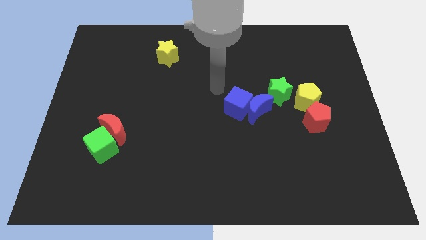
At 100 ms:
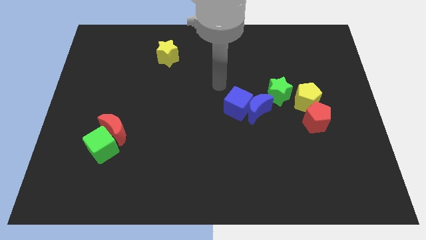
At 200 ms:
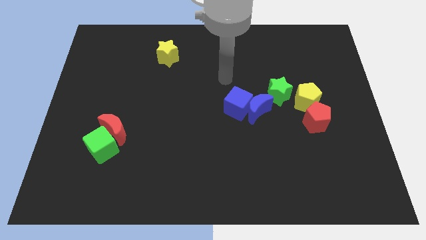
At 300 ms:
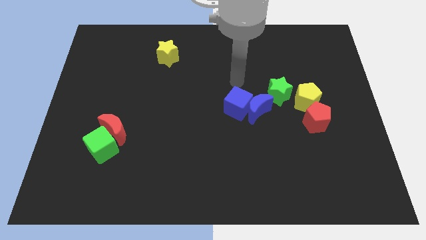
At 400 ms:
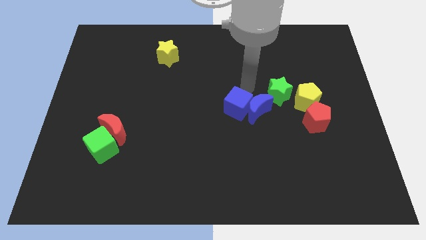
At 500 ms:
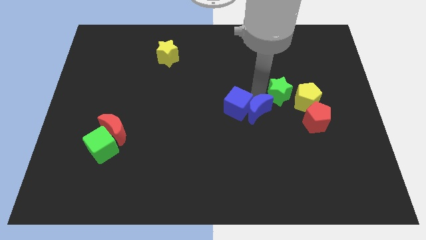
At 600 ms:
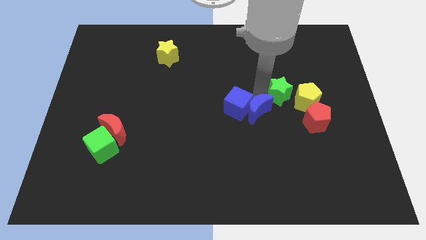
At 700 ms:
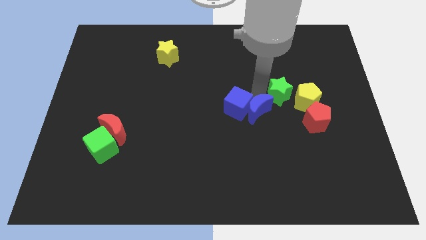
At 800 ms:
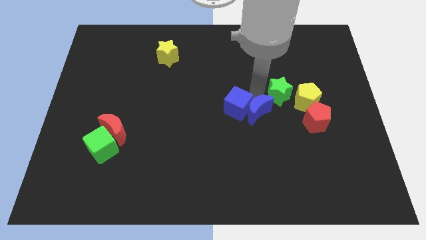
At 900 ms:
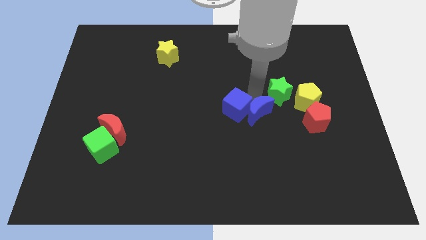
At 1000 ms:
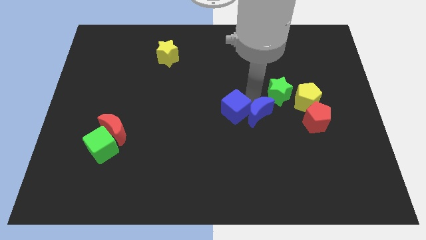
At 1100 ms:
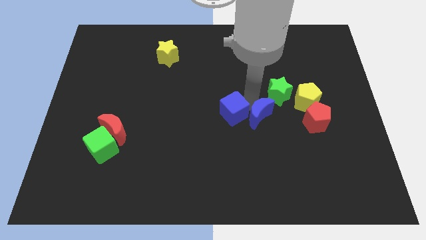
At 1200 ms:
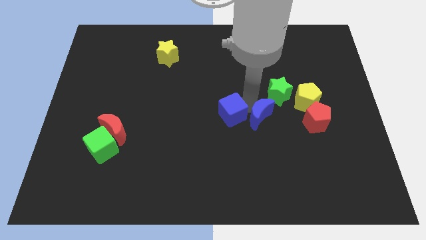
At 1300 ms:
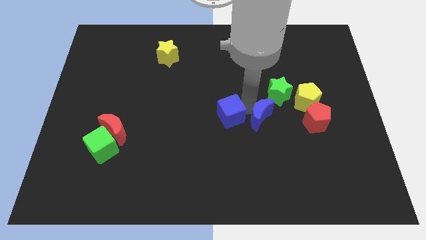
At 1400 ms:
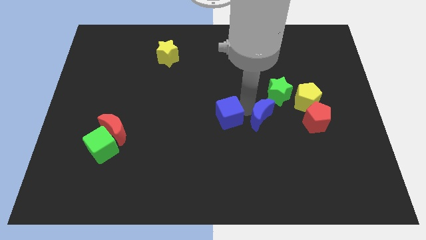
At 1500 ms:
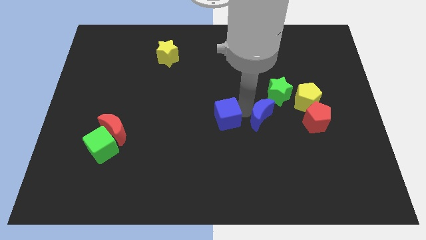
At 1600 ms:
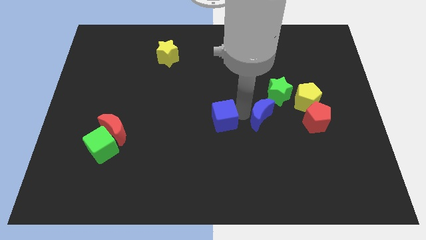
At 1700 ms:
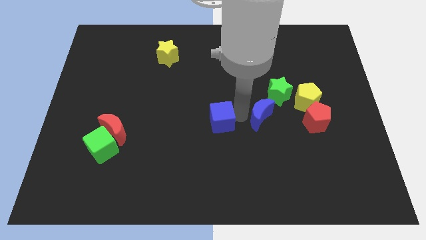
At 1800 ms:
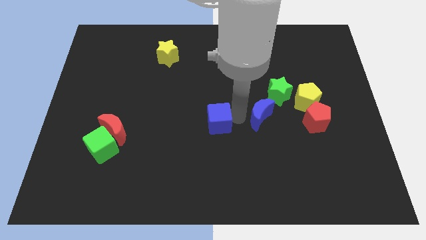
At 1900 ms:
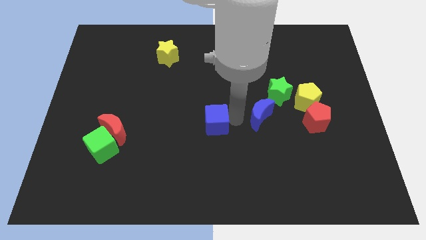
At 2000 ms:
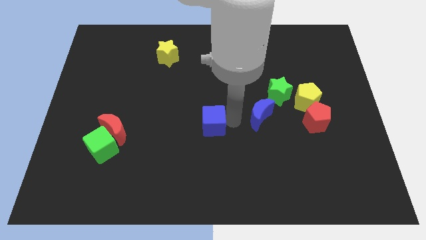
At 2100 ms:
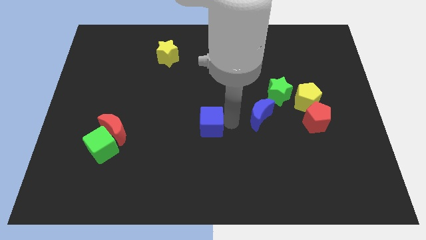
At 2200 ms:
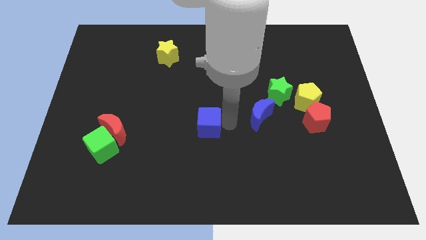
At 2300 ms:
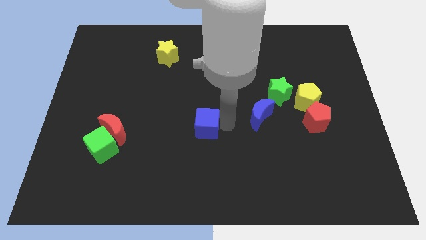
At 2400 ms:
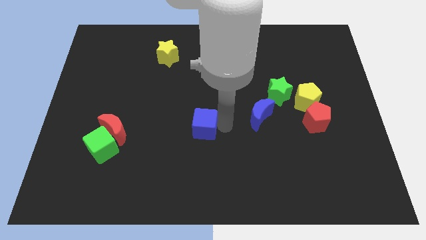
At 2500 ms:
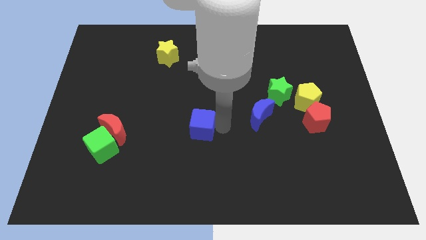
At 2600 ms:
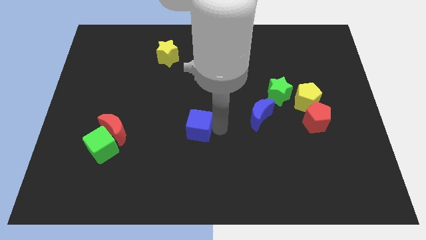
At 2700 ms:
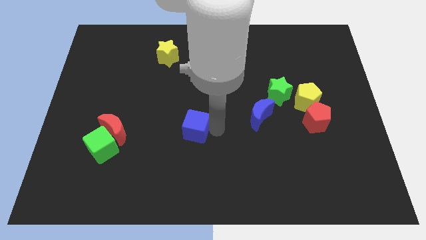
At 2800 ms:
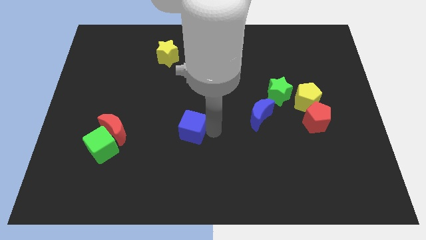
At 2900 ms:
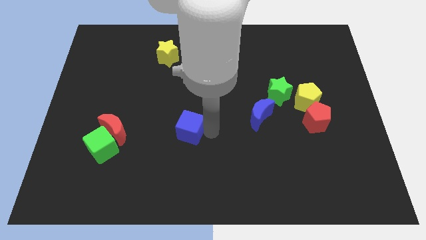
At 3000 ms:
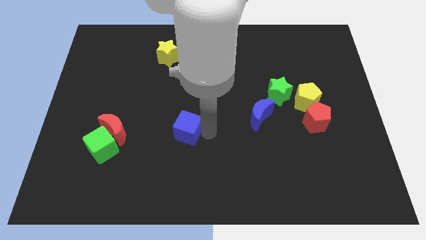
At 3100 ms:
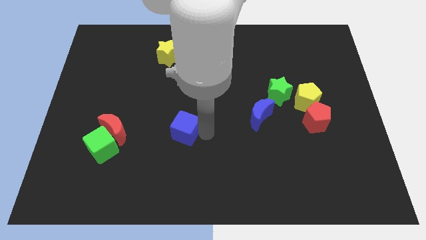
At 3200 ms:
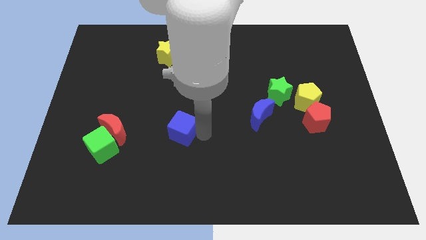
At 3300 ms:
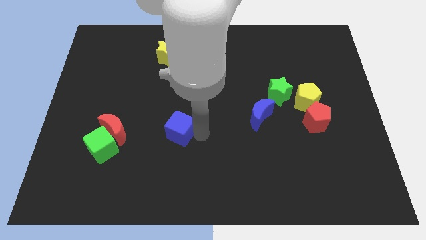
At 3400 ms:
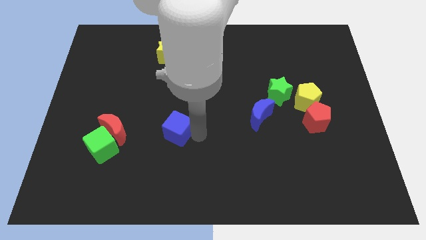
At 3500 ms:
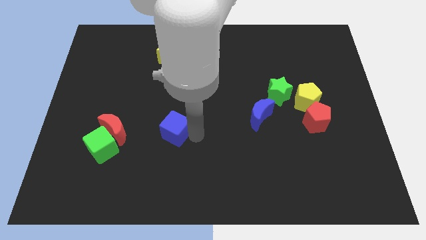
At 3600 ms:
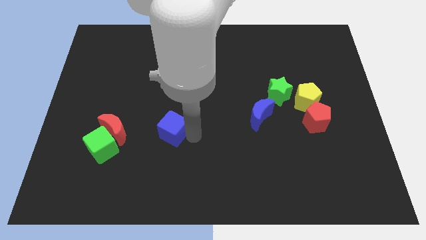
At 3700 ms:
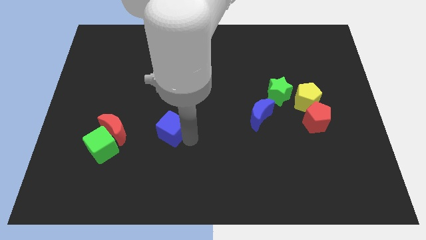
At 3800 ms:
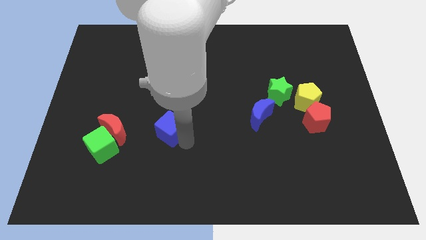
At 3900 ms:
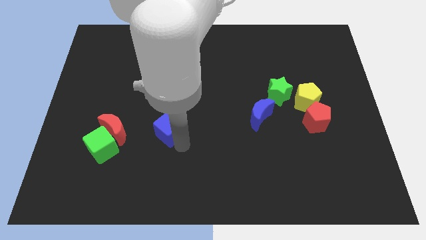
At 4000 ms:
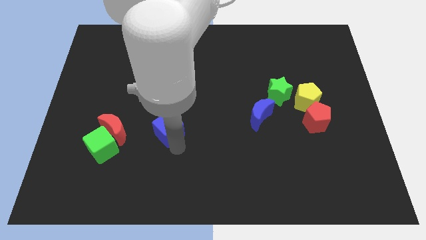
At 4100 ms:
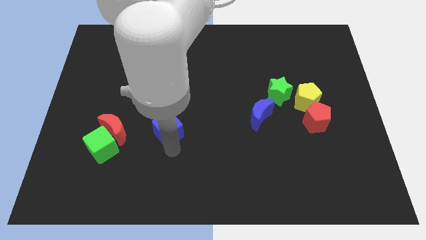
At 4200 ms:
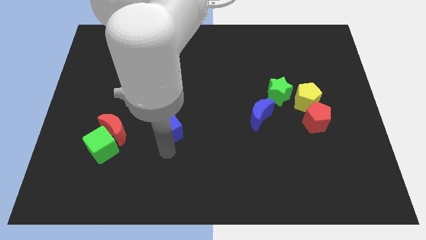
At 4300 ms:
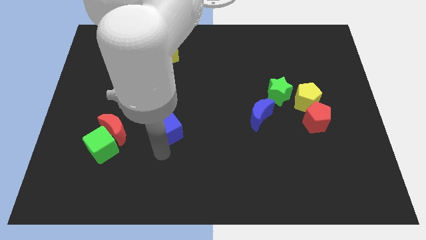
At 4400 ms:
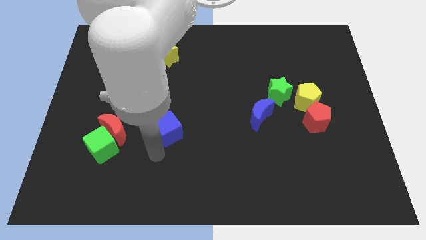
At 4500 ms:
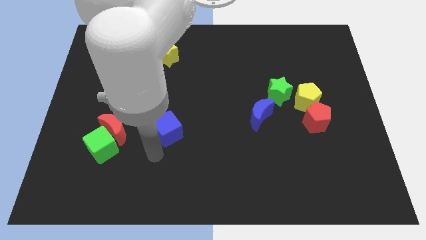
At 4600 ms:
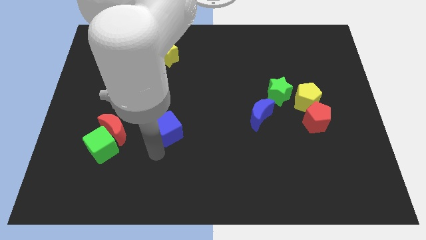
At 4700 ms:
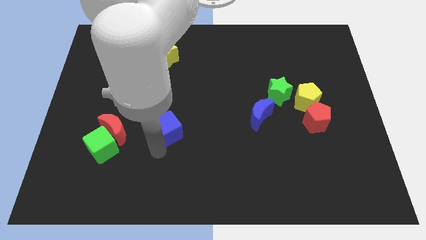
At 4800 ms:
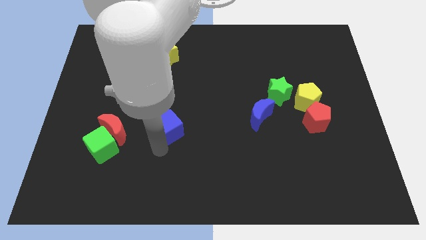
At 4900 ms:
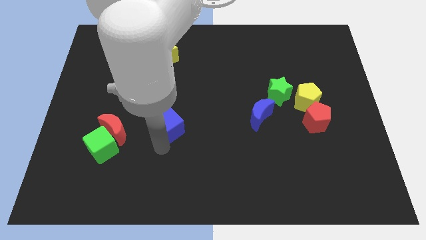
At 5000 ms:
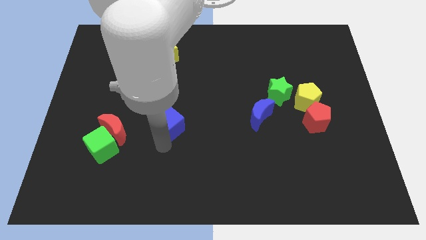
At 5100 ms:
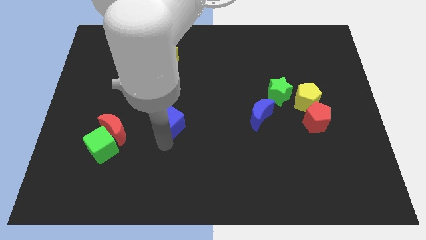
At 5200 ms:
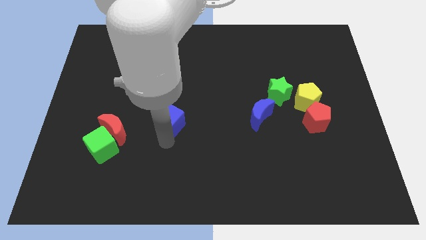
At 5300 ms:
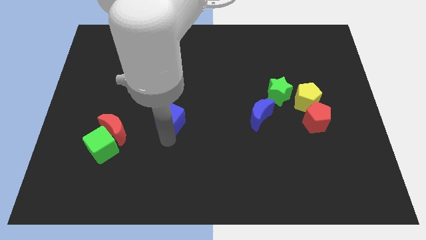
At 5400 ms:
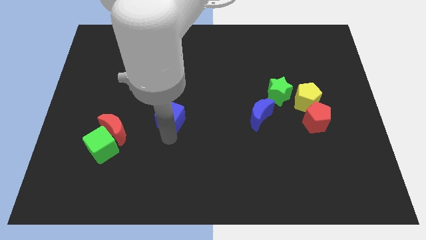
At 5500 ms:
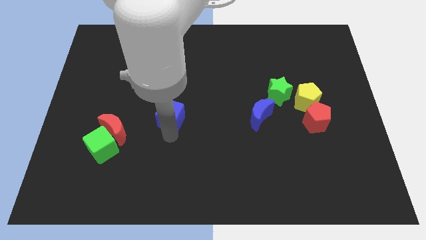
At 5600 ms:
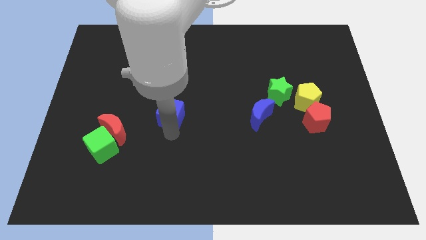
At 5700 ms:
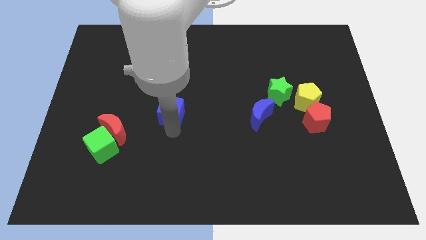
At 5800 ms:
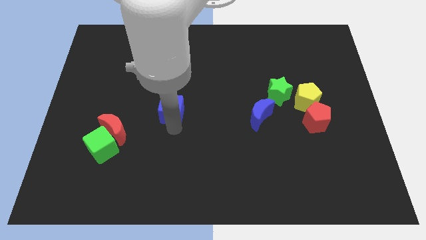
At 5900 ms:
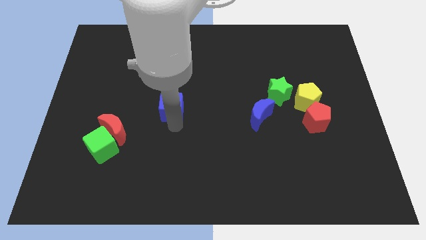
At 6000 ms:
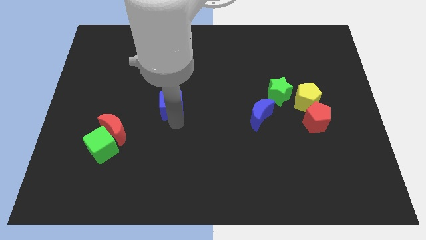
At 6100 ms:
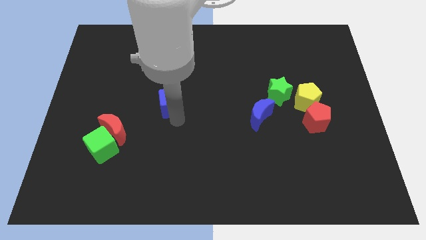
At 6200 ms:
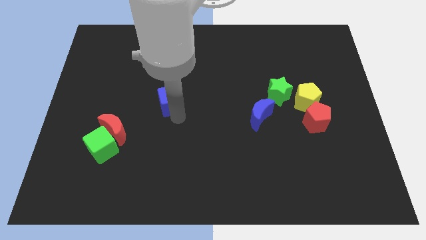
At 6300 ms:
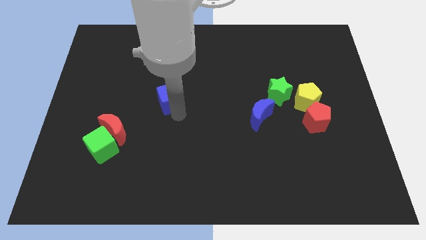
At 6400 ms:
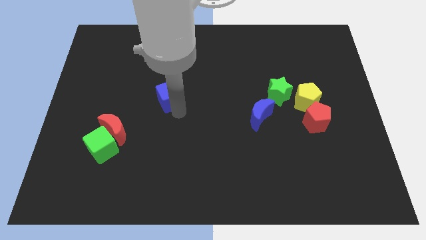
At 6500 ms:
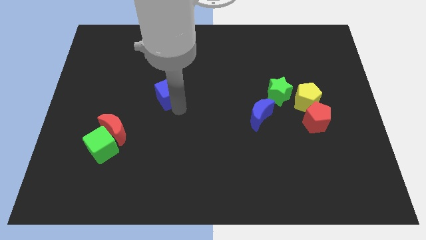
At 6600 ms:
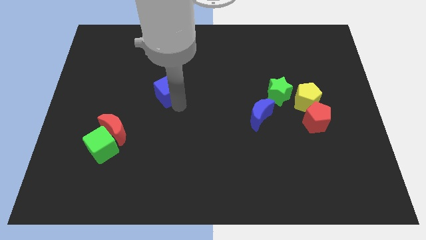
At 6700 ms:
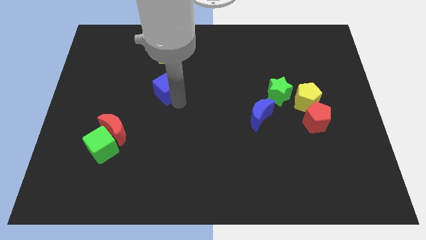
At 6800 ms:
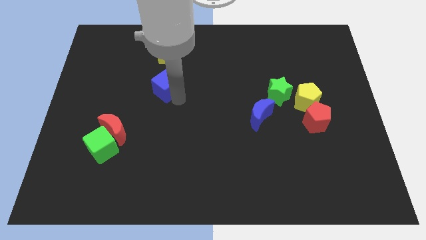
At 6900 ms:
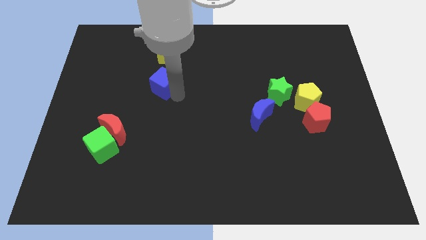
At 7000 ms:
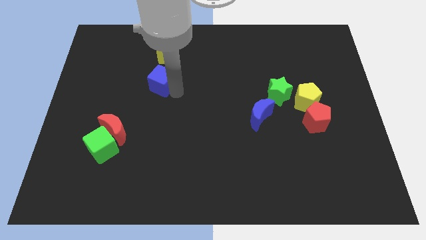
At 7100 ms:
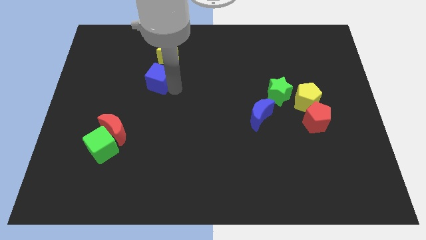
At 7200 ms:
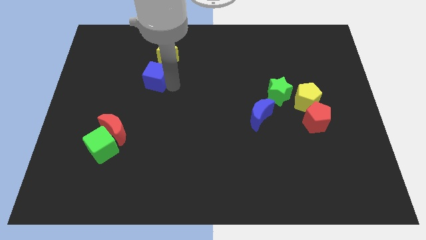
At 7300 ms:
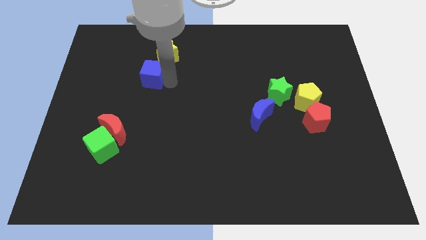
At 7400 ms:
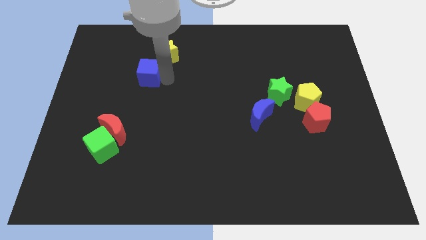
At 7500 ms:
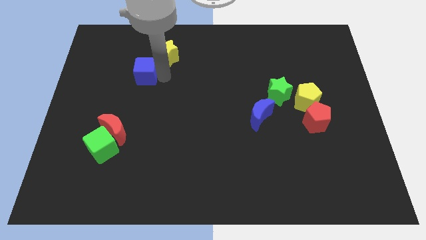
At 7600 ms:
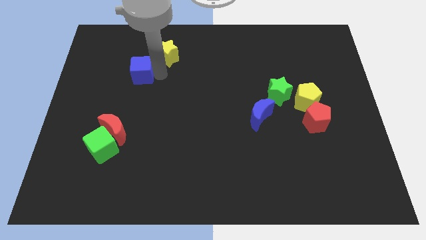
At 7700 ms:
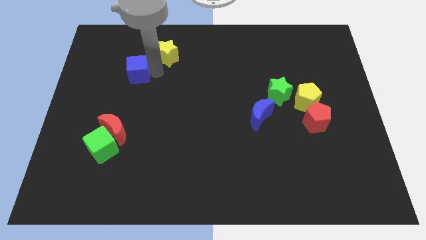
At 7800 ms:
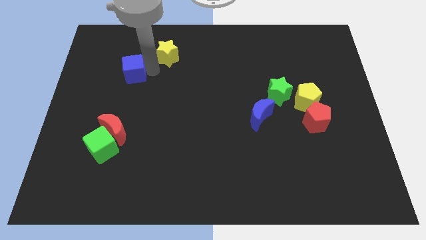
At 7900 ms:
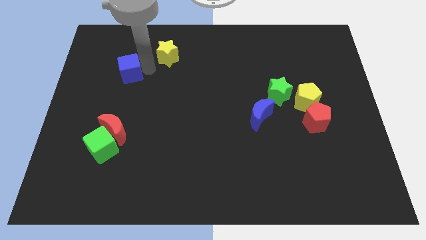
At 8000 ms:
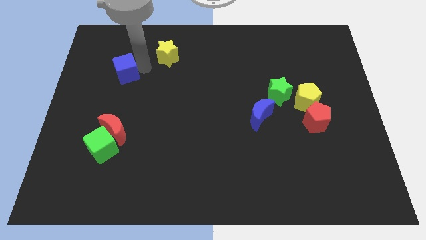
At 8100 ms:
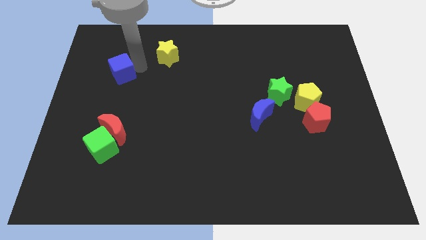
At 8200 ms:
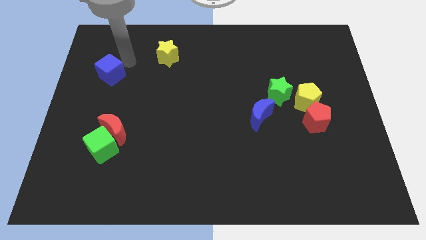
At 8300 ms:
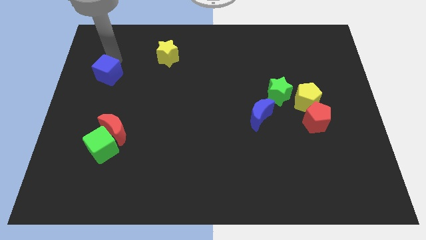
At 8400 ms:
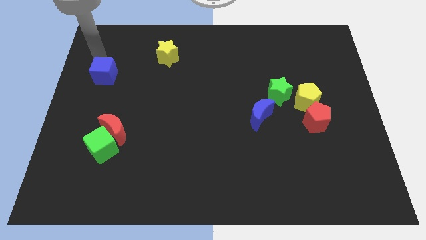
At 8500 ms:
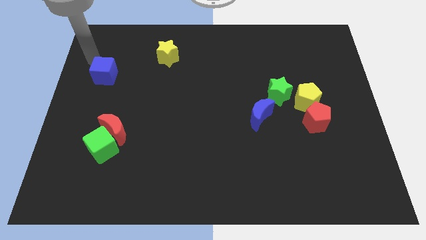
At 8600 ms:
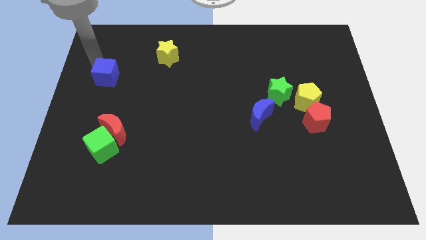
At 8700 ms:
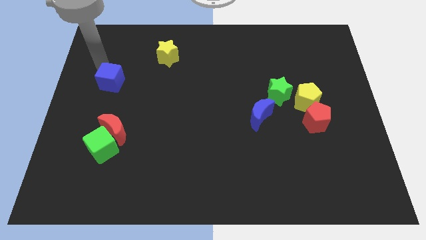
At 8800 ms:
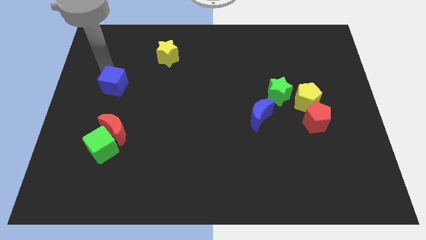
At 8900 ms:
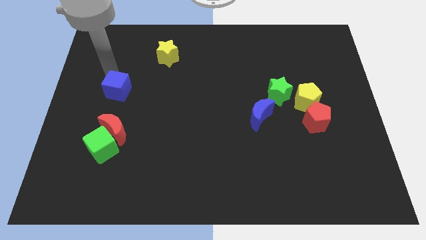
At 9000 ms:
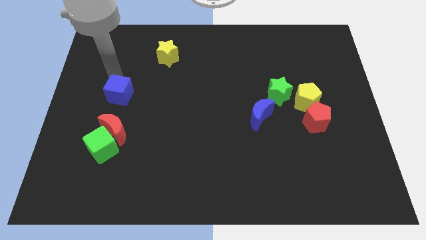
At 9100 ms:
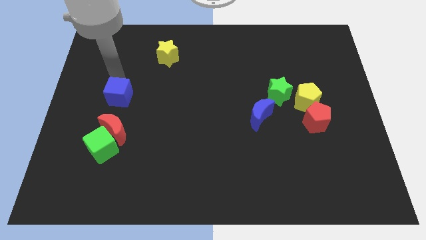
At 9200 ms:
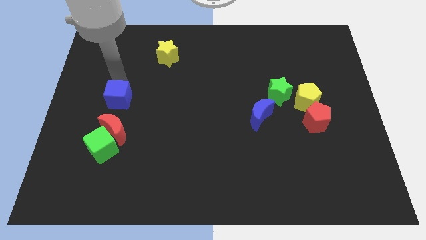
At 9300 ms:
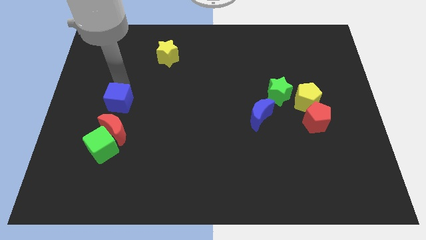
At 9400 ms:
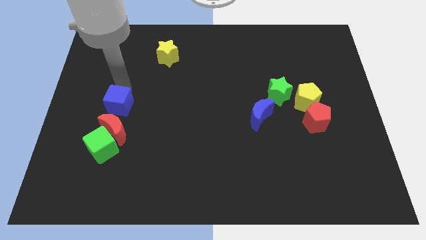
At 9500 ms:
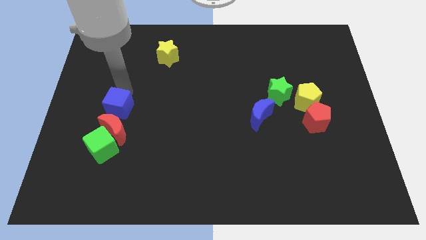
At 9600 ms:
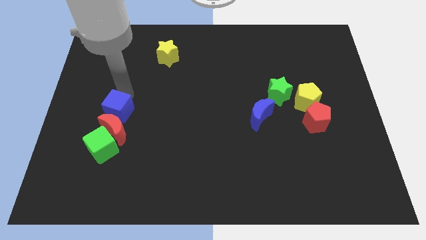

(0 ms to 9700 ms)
move the blue cube towards the red moon
